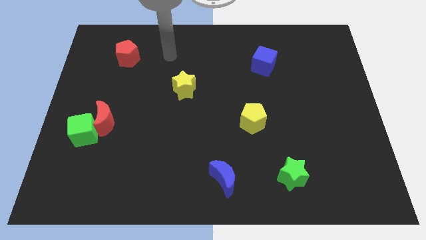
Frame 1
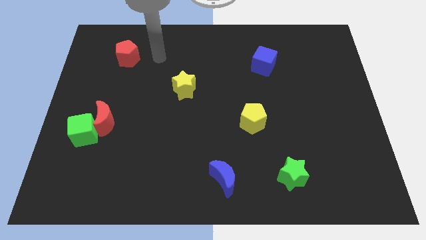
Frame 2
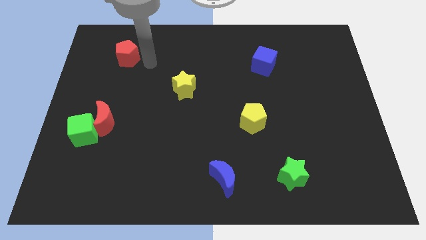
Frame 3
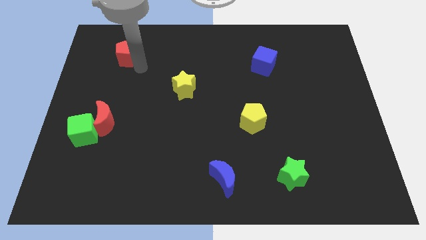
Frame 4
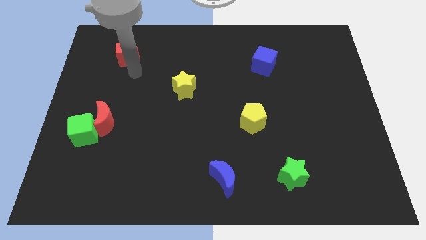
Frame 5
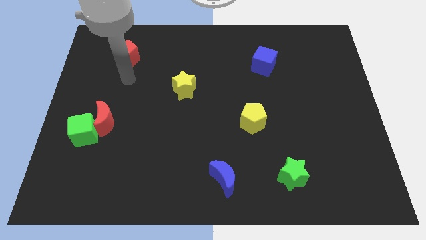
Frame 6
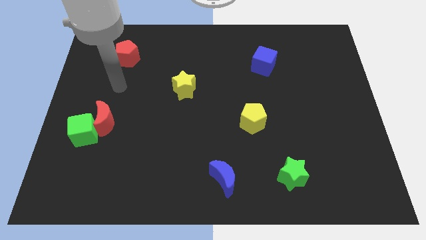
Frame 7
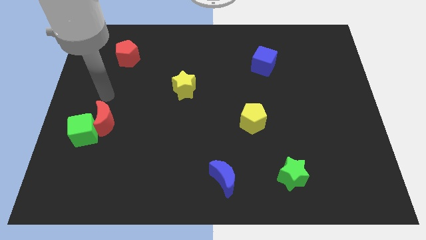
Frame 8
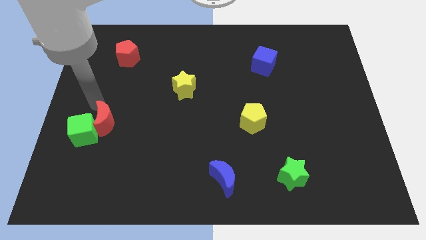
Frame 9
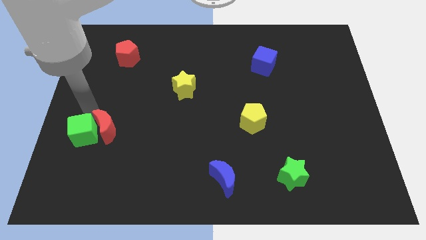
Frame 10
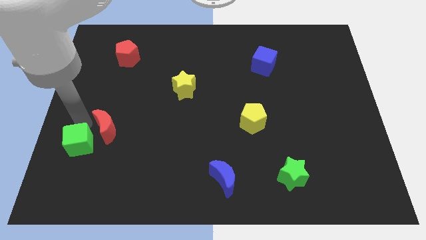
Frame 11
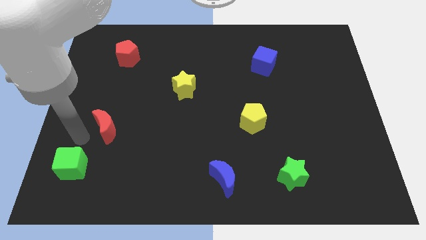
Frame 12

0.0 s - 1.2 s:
separate the red moon from the green cube

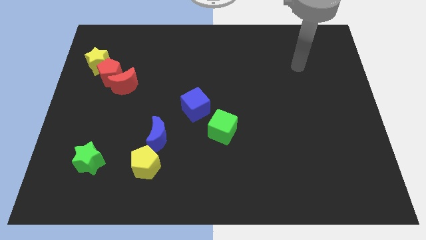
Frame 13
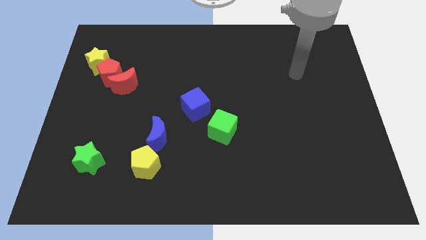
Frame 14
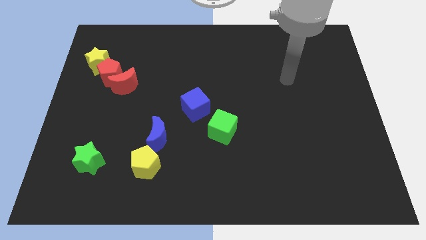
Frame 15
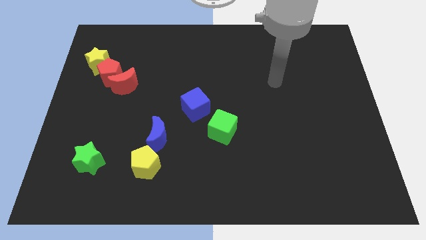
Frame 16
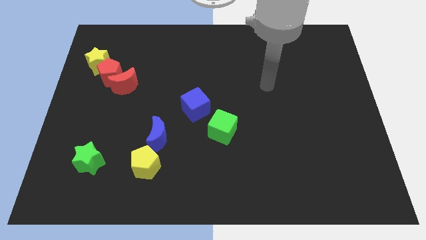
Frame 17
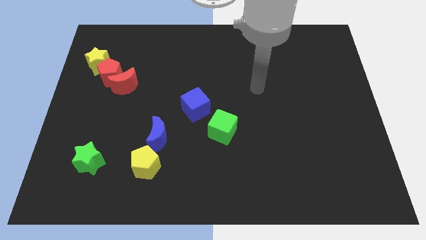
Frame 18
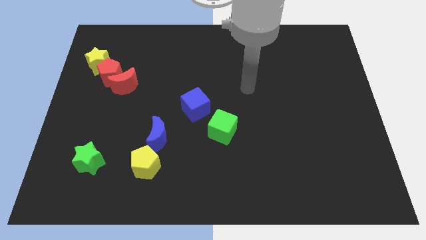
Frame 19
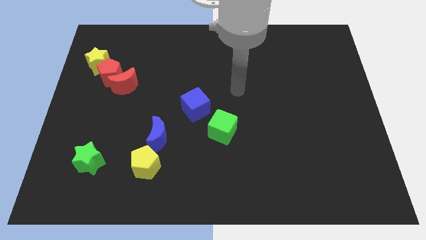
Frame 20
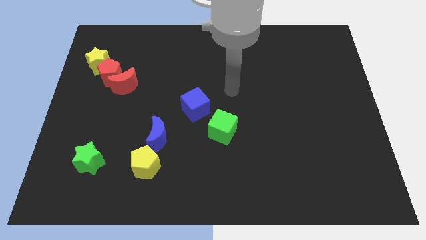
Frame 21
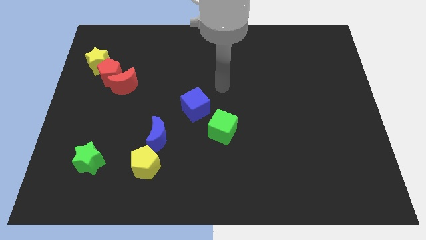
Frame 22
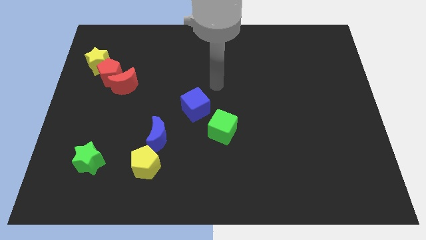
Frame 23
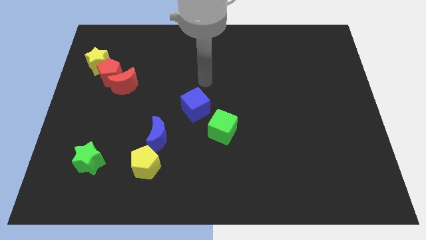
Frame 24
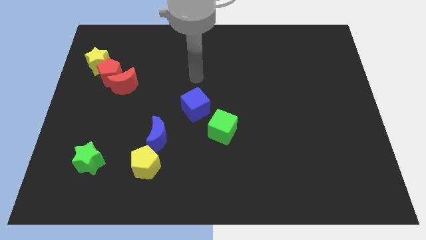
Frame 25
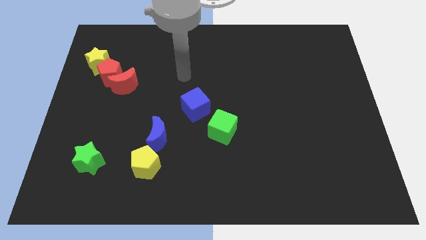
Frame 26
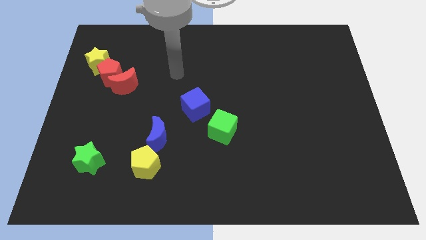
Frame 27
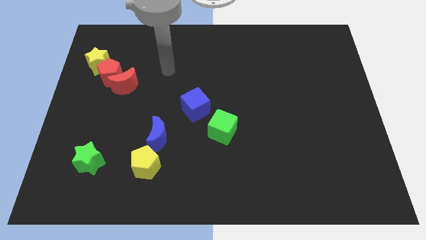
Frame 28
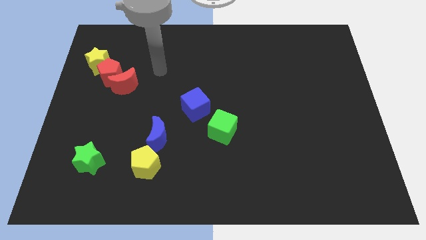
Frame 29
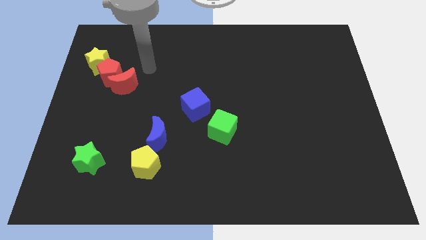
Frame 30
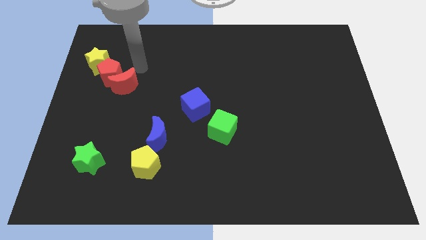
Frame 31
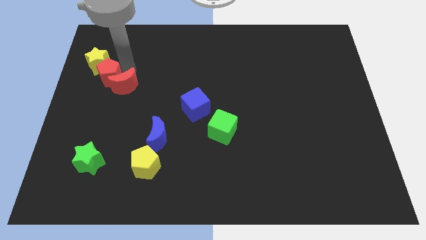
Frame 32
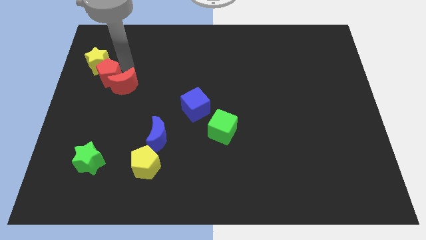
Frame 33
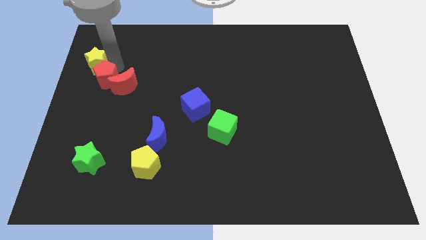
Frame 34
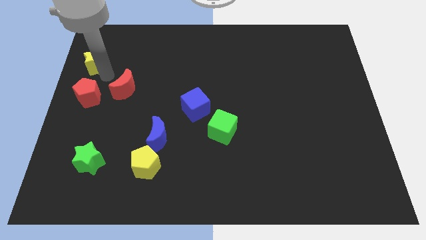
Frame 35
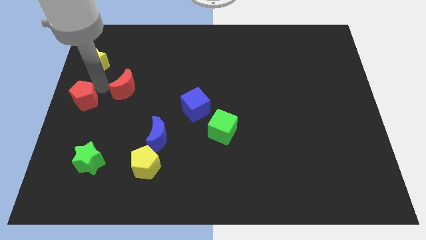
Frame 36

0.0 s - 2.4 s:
move the red moon away from the red pentagon

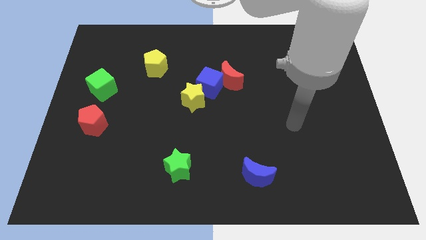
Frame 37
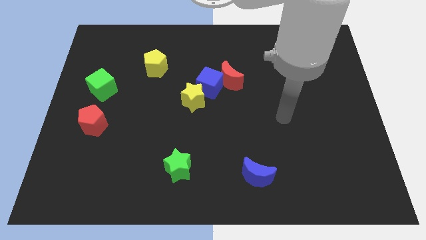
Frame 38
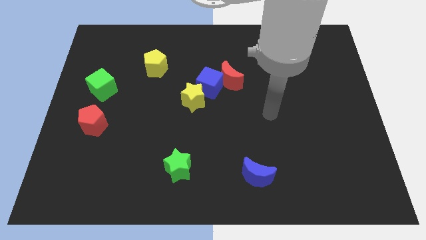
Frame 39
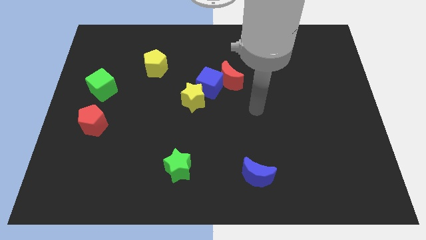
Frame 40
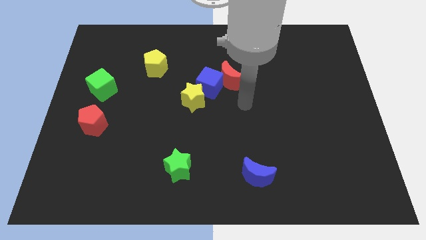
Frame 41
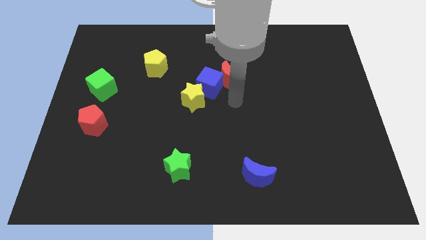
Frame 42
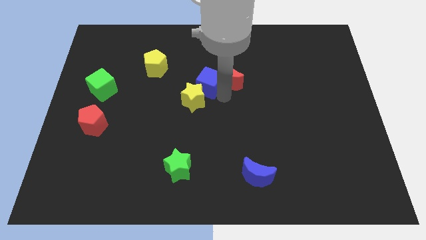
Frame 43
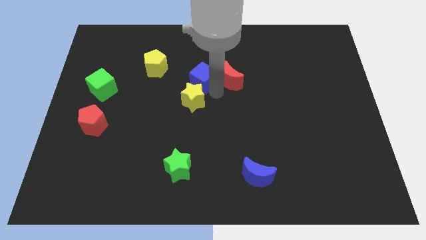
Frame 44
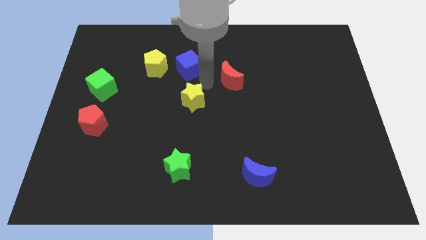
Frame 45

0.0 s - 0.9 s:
pull the red moon apart from the blue cube

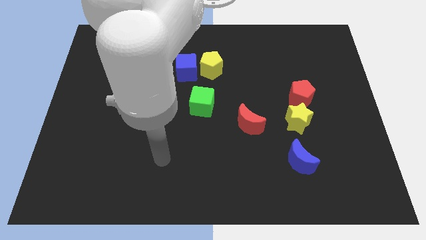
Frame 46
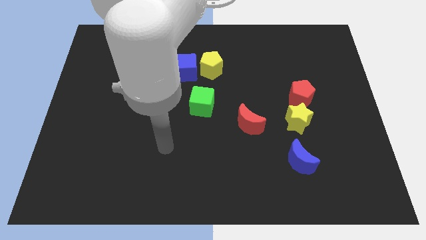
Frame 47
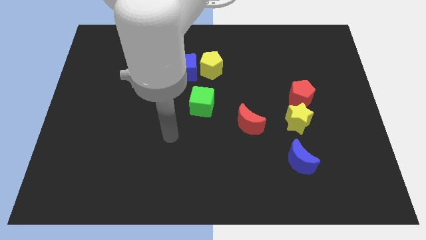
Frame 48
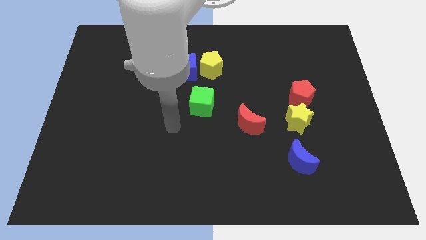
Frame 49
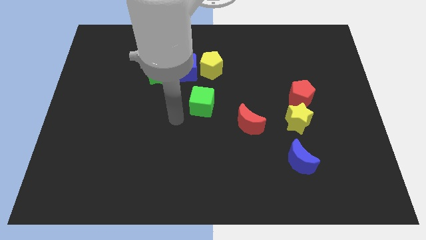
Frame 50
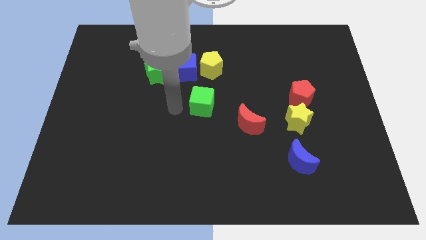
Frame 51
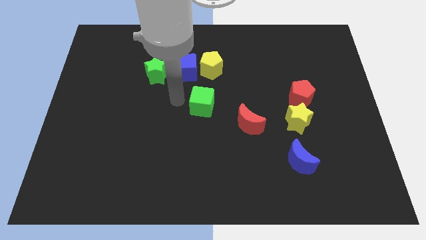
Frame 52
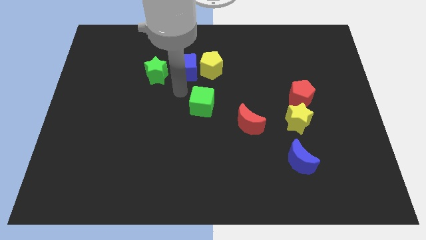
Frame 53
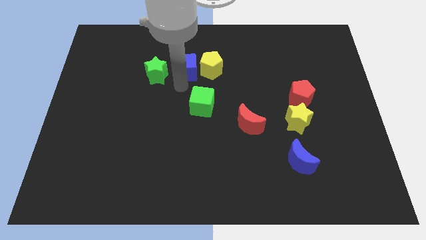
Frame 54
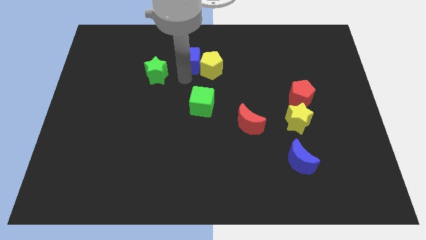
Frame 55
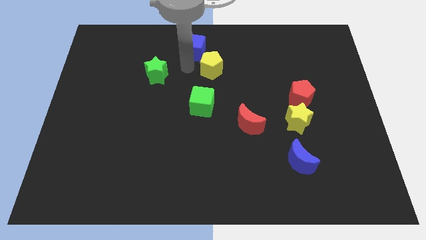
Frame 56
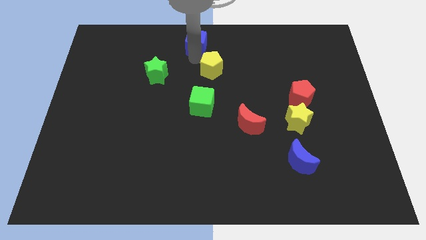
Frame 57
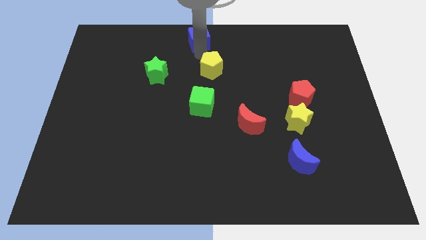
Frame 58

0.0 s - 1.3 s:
pull the yellow pentagon apart from the blue cube

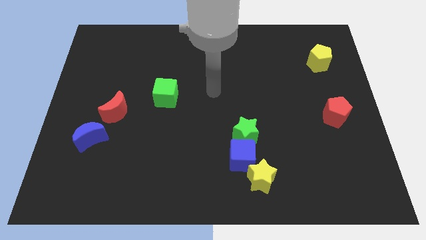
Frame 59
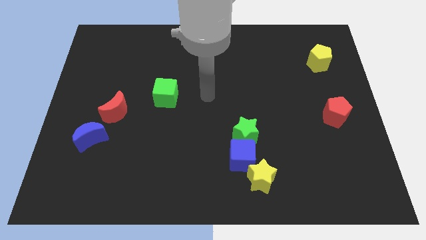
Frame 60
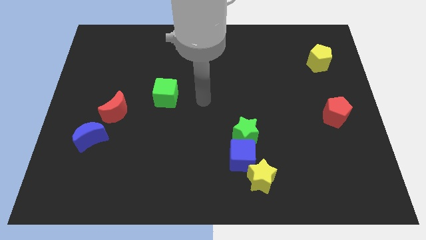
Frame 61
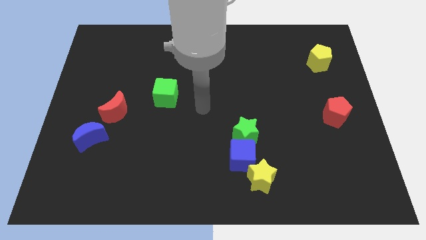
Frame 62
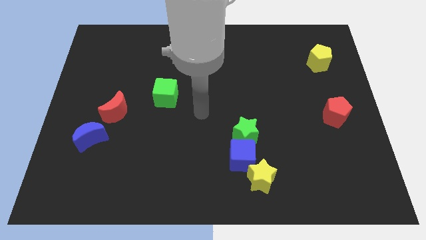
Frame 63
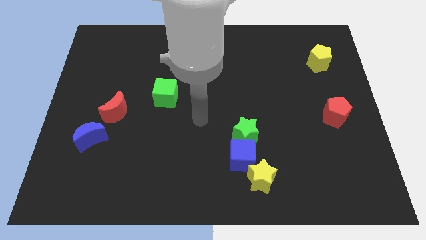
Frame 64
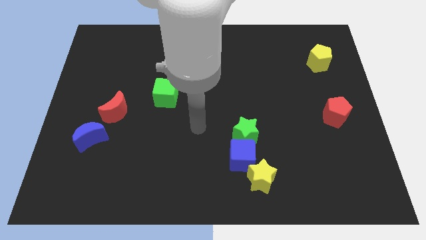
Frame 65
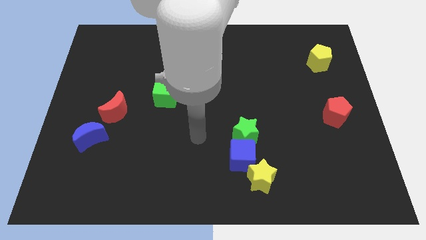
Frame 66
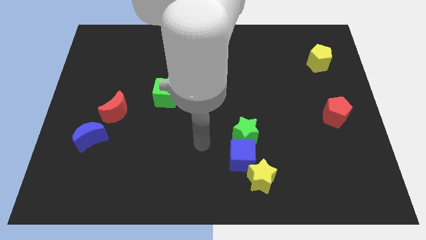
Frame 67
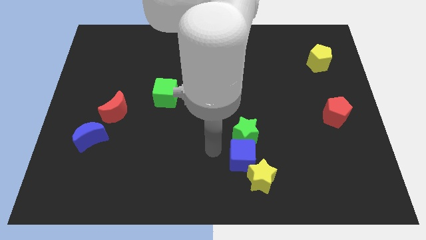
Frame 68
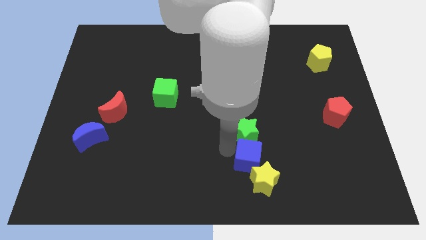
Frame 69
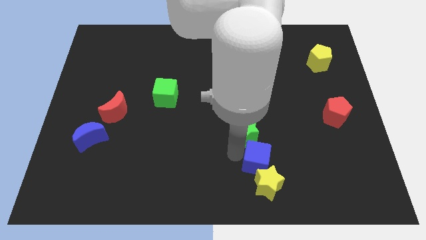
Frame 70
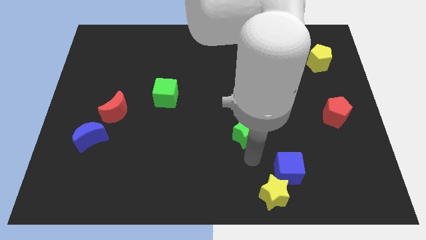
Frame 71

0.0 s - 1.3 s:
pull the green star apart from the blue cube

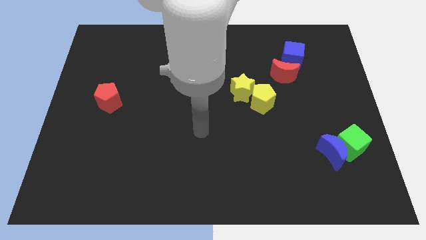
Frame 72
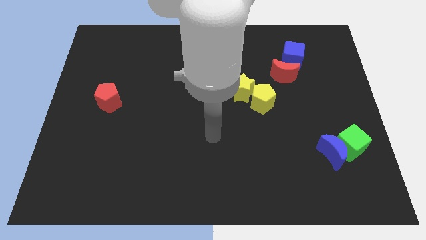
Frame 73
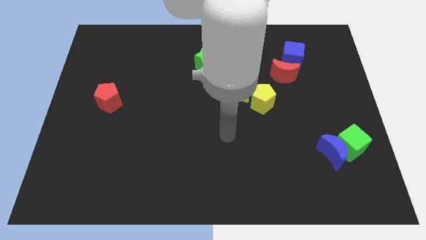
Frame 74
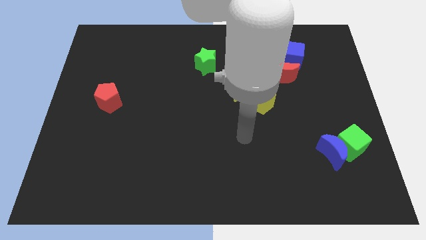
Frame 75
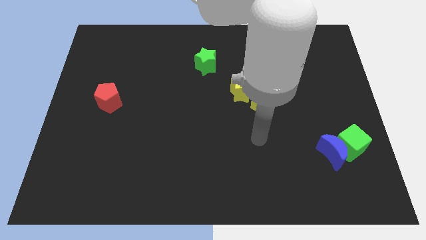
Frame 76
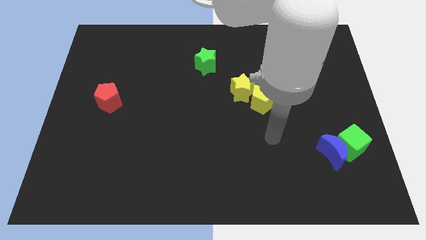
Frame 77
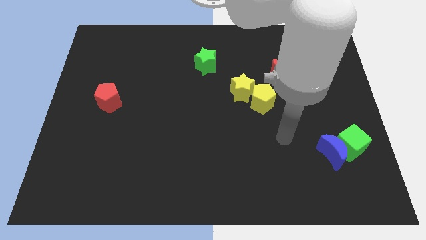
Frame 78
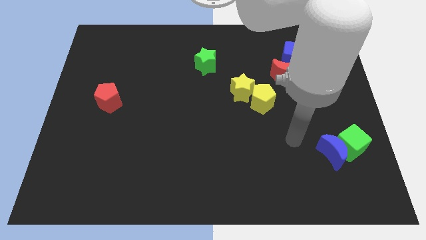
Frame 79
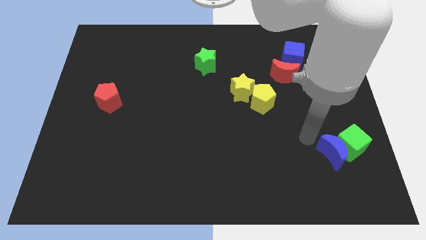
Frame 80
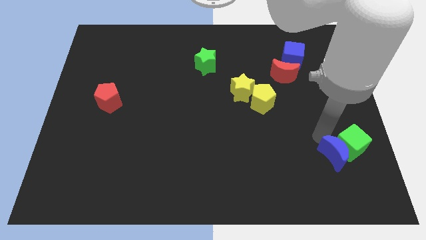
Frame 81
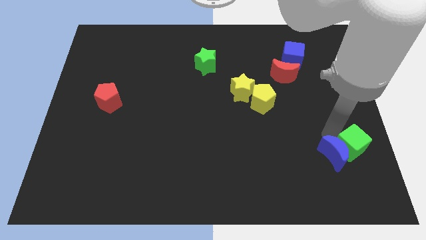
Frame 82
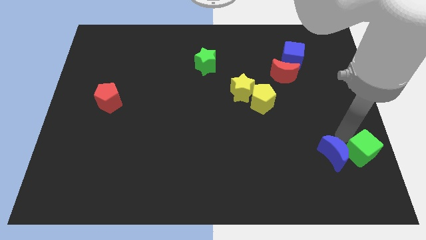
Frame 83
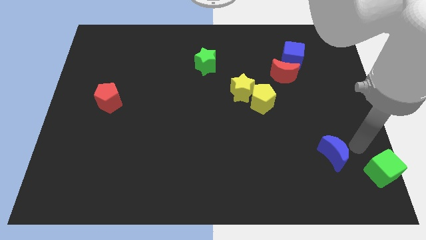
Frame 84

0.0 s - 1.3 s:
pull the blue moon apart from the green cube

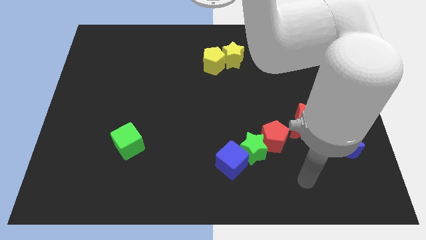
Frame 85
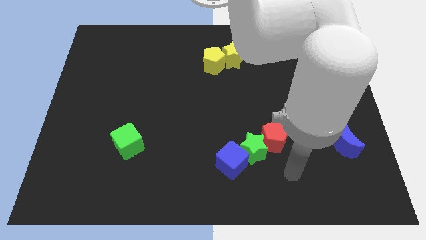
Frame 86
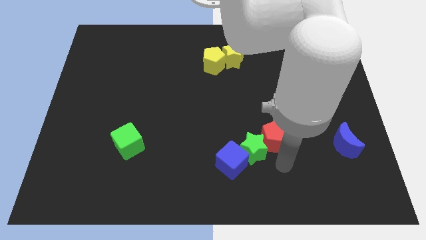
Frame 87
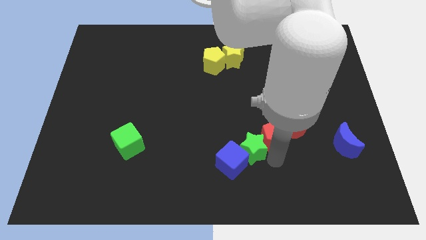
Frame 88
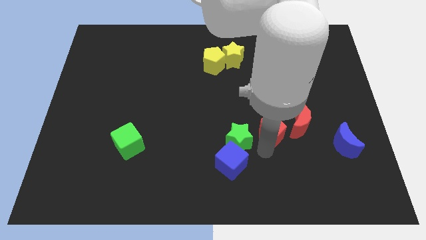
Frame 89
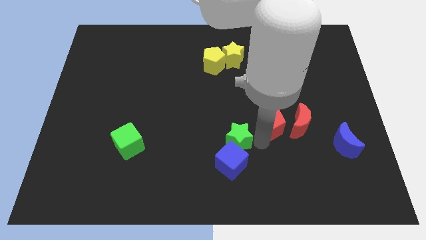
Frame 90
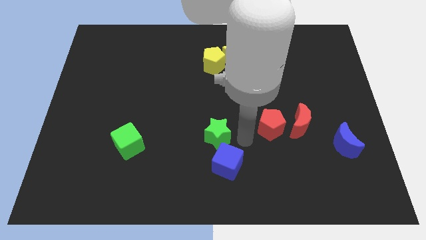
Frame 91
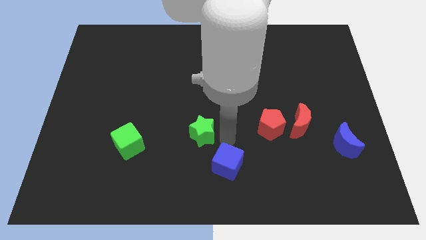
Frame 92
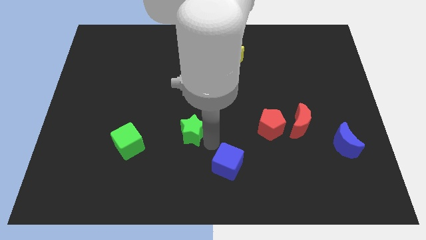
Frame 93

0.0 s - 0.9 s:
move the blue cube away from the green star
